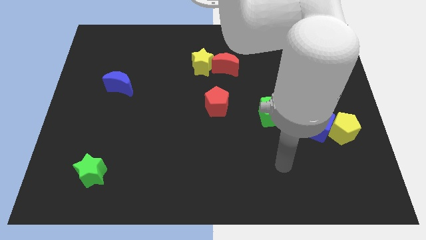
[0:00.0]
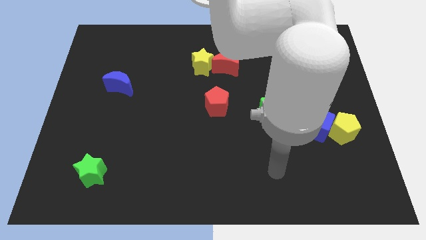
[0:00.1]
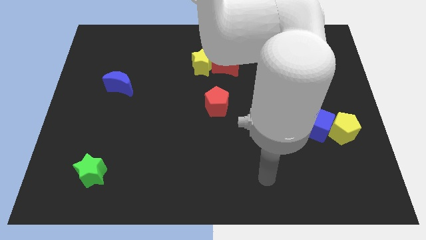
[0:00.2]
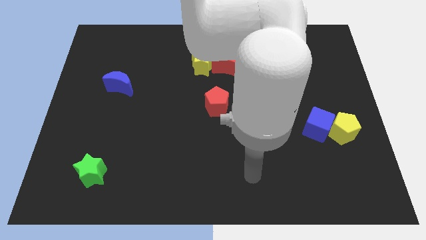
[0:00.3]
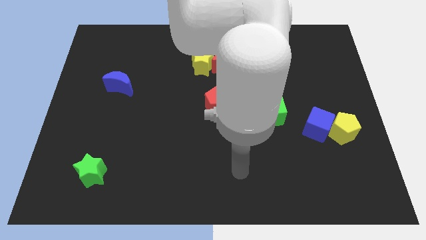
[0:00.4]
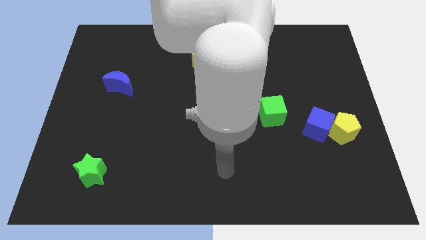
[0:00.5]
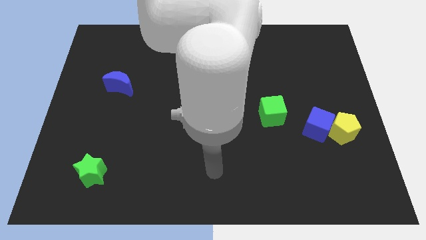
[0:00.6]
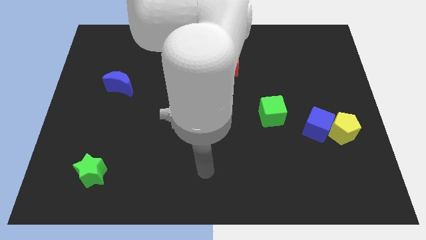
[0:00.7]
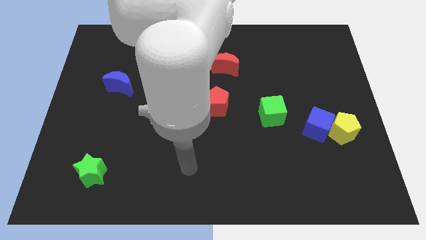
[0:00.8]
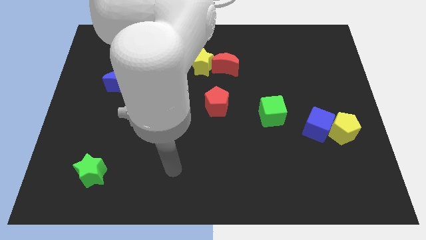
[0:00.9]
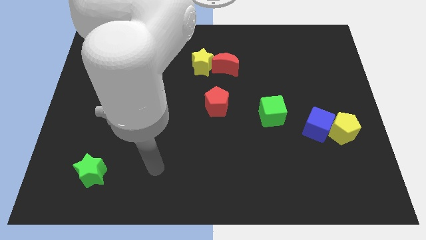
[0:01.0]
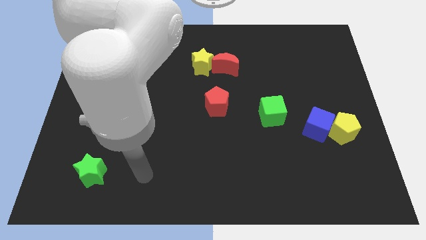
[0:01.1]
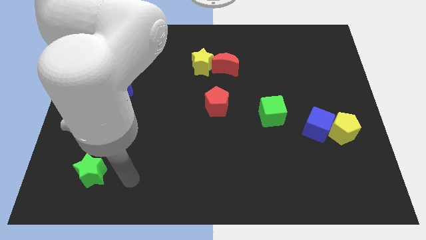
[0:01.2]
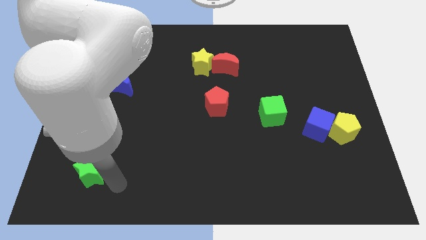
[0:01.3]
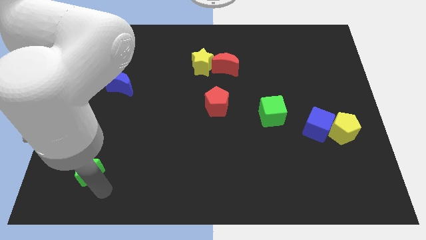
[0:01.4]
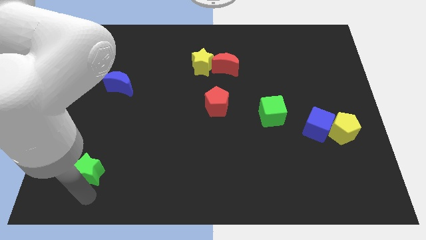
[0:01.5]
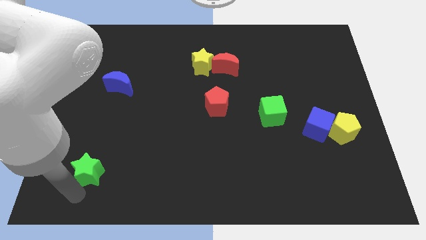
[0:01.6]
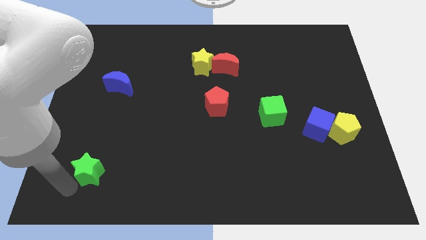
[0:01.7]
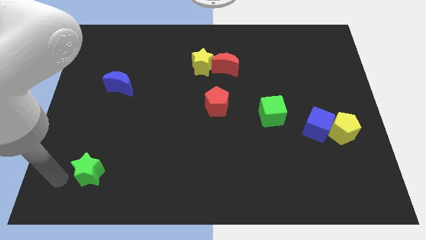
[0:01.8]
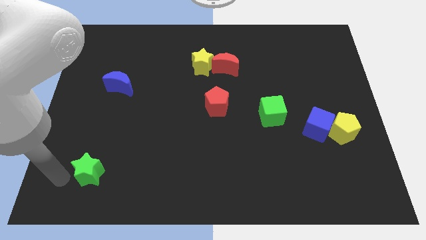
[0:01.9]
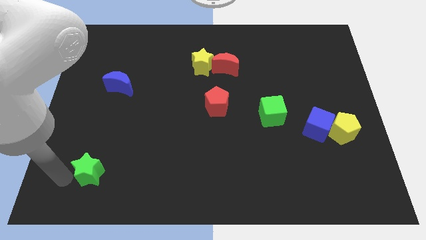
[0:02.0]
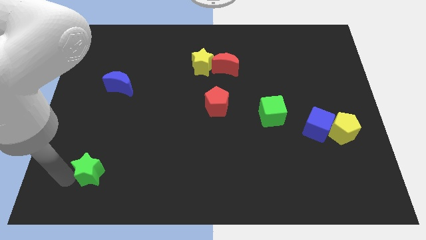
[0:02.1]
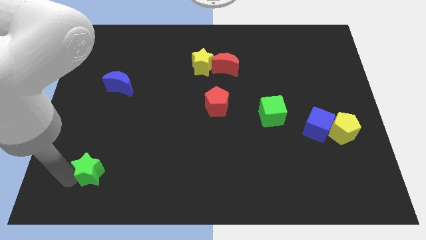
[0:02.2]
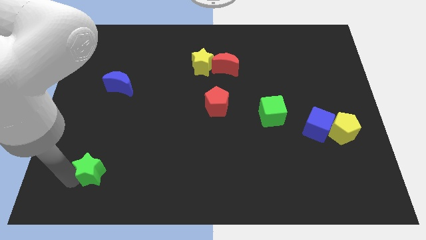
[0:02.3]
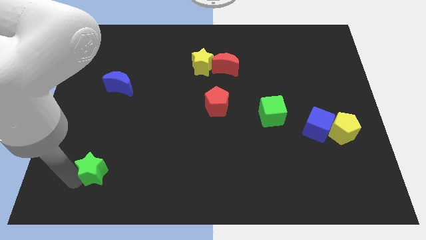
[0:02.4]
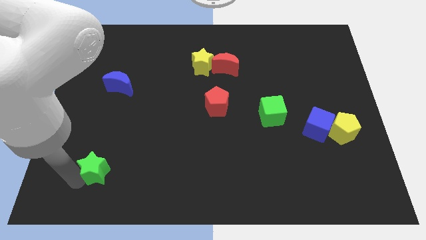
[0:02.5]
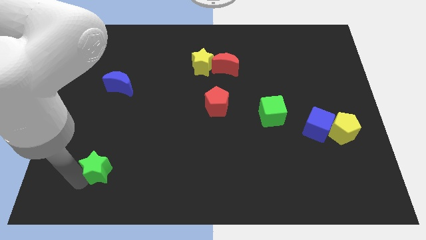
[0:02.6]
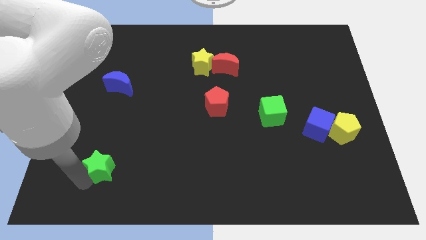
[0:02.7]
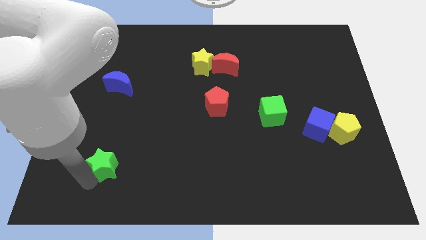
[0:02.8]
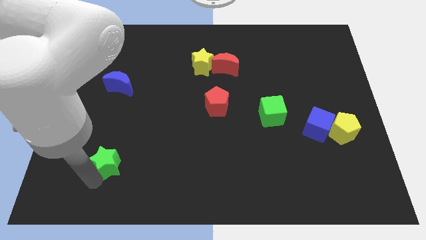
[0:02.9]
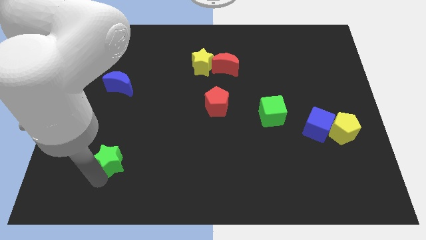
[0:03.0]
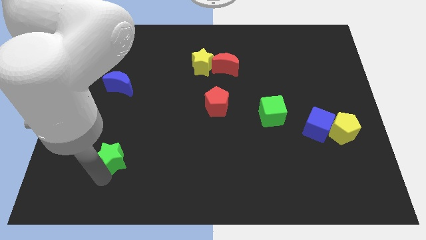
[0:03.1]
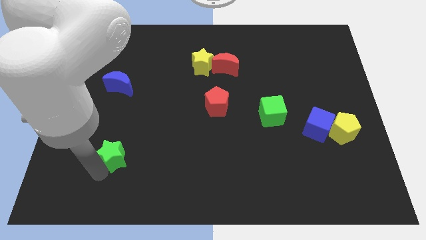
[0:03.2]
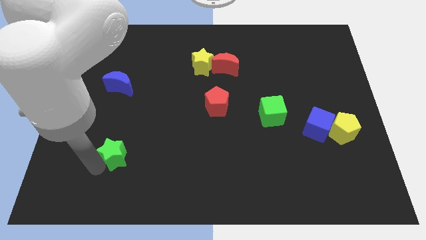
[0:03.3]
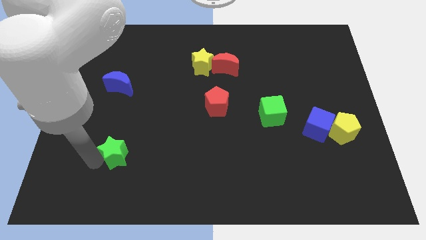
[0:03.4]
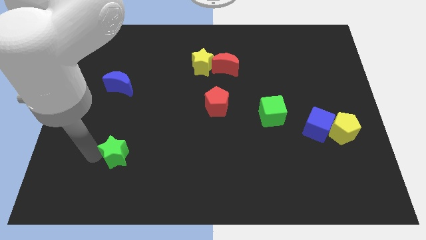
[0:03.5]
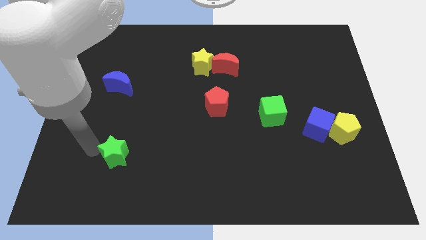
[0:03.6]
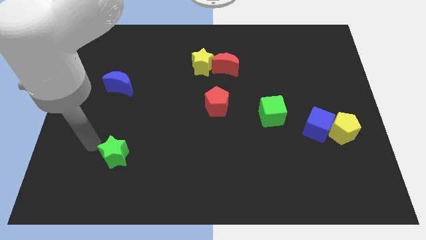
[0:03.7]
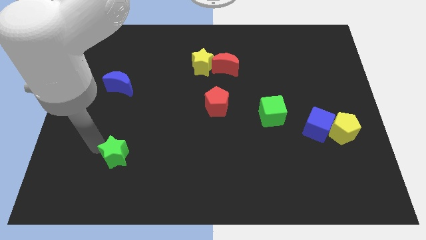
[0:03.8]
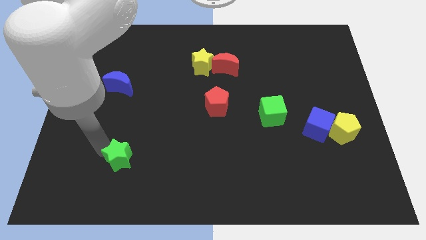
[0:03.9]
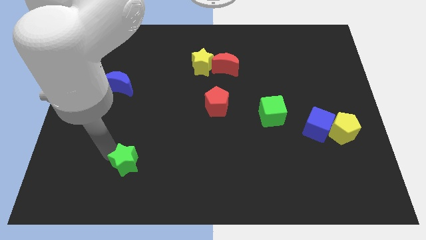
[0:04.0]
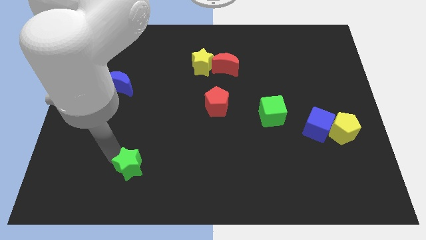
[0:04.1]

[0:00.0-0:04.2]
slightly move the green star right

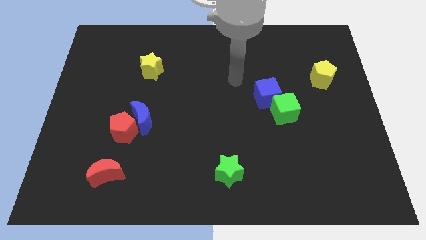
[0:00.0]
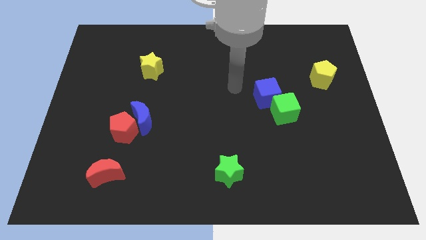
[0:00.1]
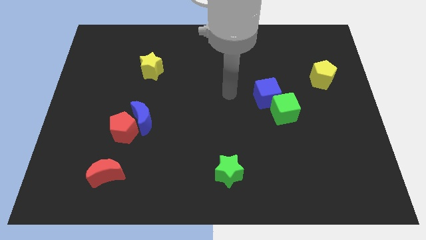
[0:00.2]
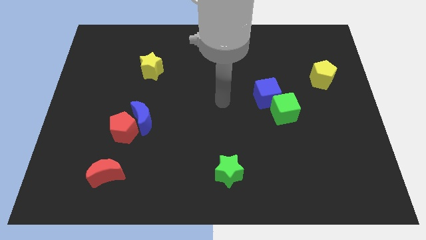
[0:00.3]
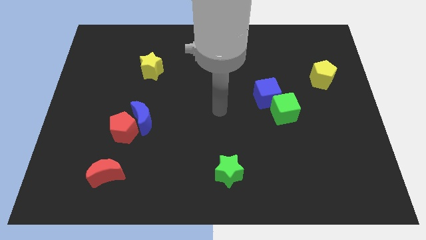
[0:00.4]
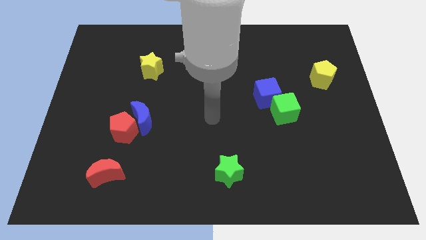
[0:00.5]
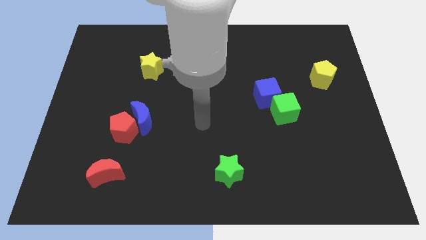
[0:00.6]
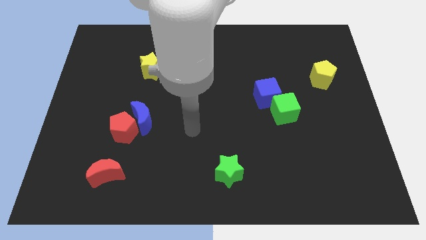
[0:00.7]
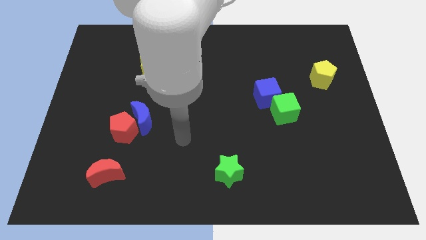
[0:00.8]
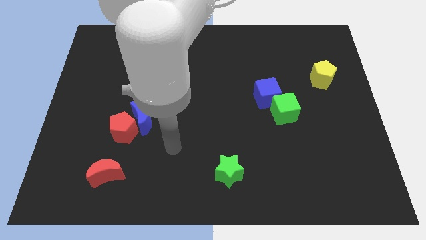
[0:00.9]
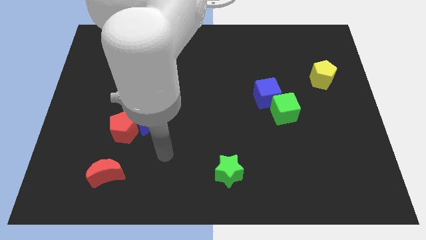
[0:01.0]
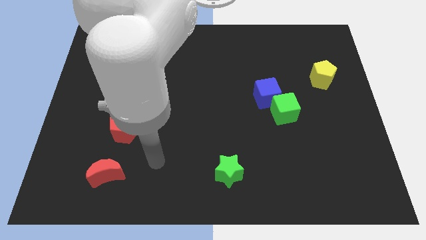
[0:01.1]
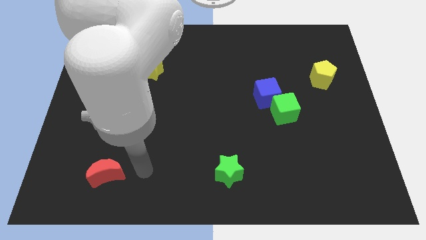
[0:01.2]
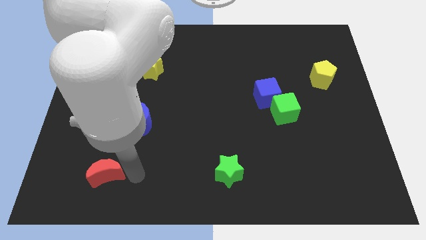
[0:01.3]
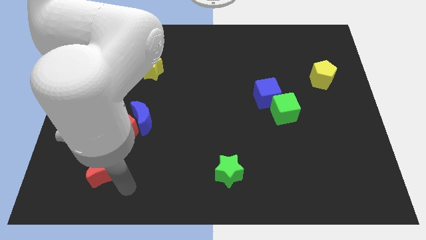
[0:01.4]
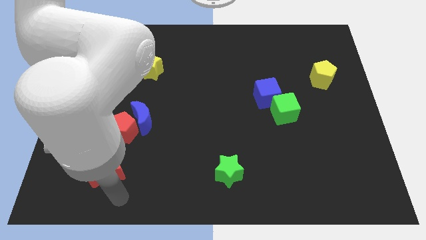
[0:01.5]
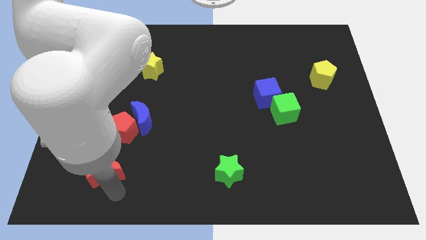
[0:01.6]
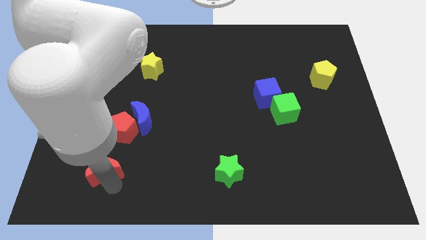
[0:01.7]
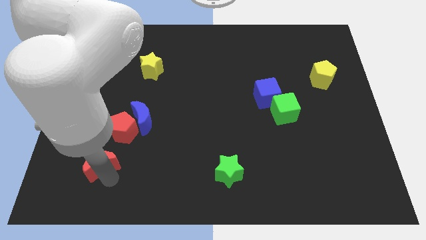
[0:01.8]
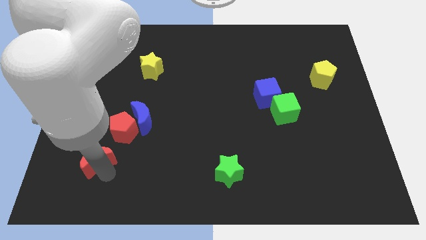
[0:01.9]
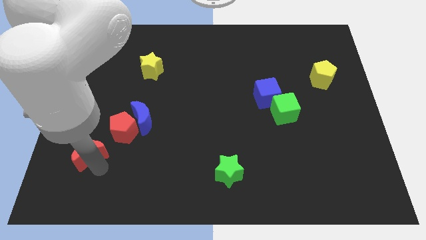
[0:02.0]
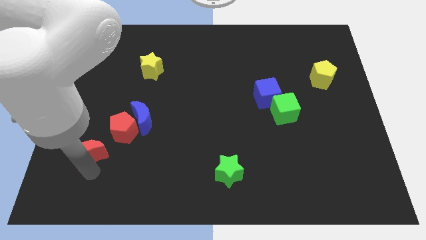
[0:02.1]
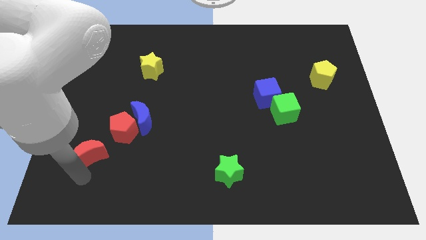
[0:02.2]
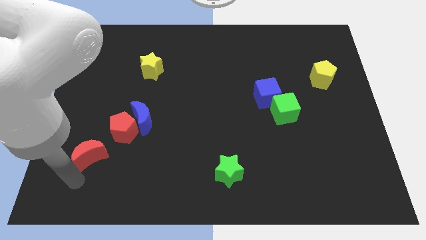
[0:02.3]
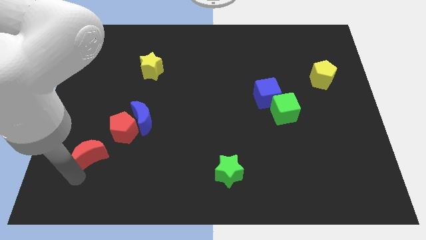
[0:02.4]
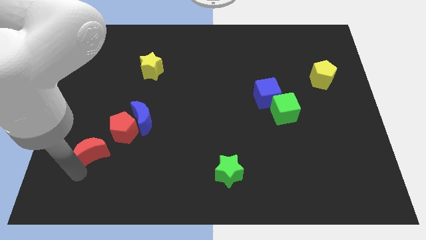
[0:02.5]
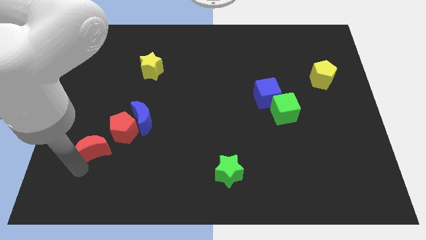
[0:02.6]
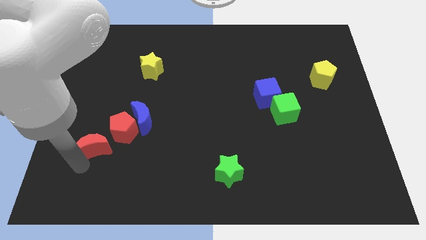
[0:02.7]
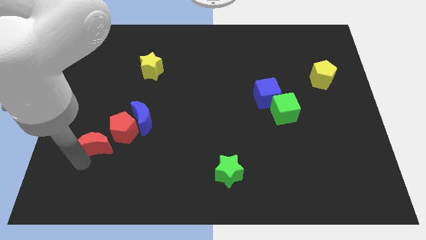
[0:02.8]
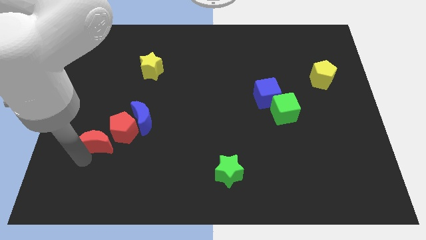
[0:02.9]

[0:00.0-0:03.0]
move the red moon up a little bit

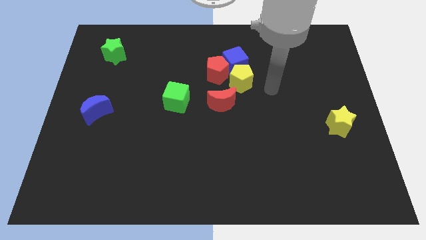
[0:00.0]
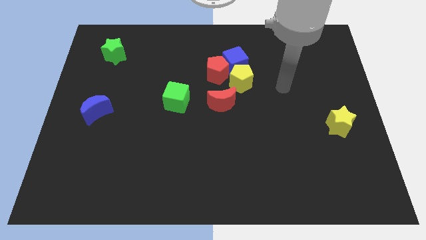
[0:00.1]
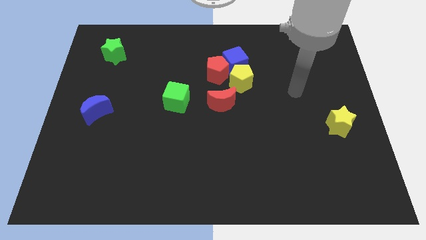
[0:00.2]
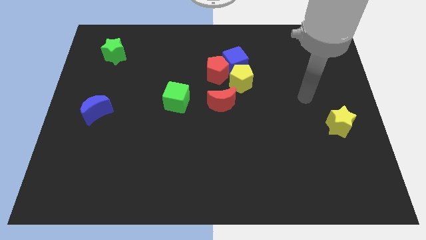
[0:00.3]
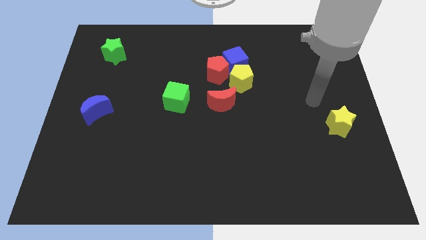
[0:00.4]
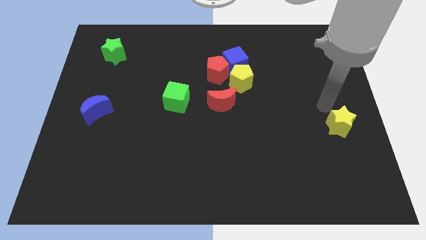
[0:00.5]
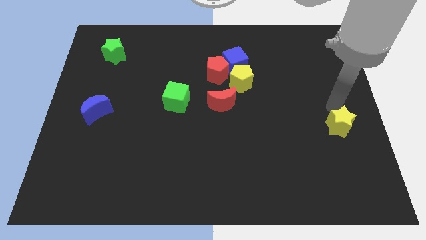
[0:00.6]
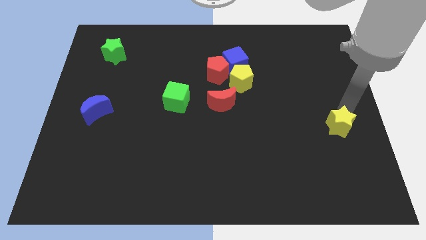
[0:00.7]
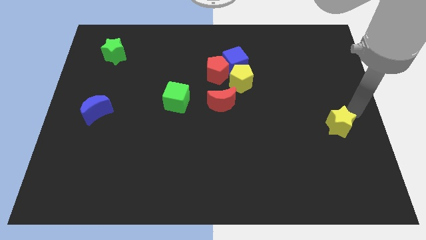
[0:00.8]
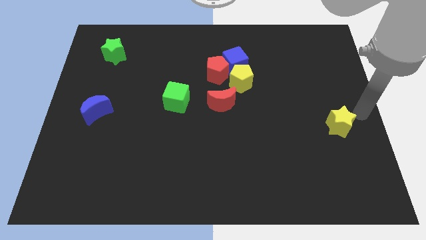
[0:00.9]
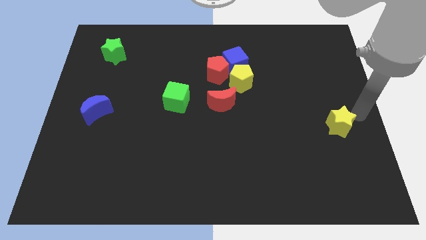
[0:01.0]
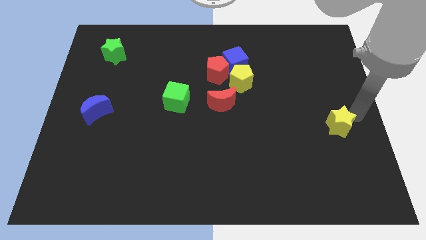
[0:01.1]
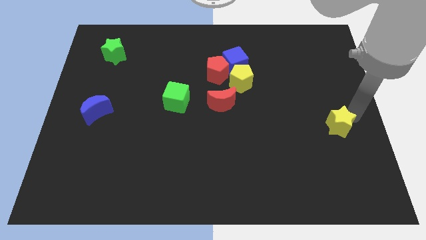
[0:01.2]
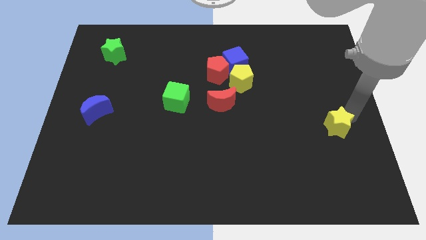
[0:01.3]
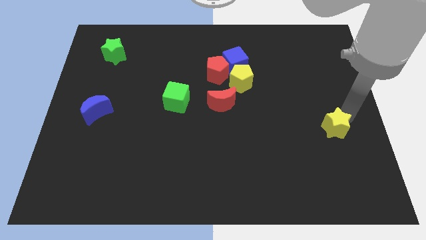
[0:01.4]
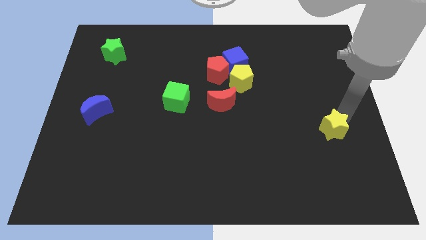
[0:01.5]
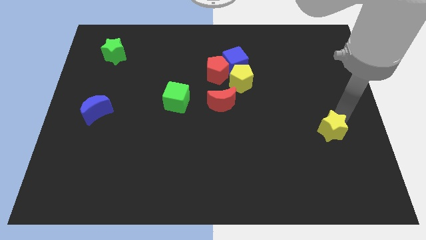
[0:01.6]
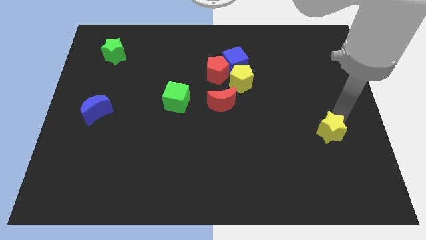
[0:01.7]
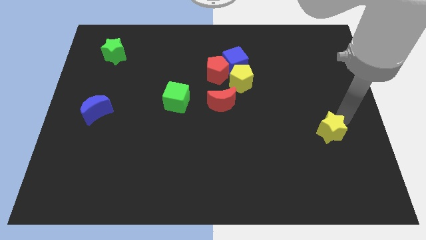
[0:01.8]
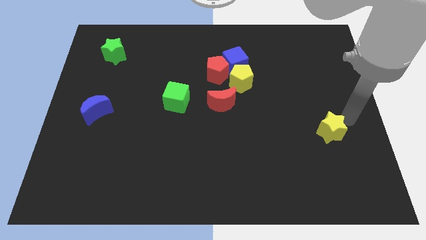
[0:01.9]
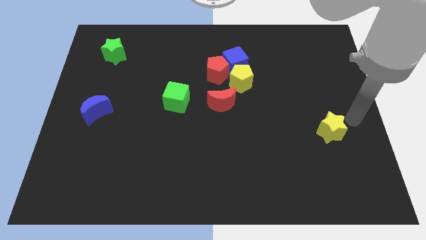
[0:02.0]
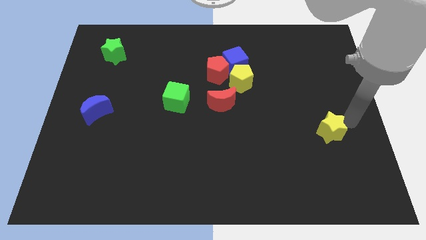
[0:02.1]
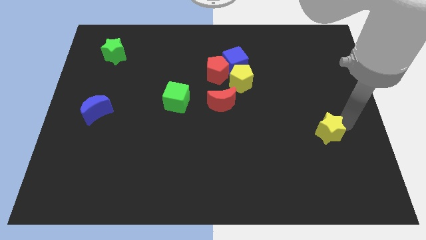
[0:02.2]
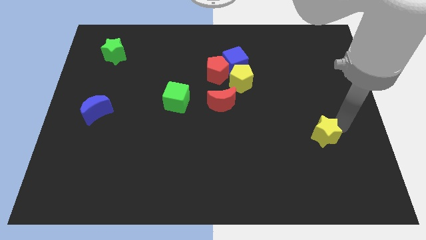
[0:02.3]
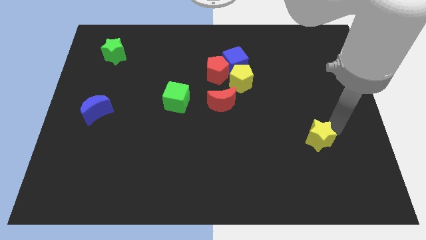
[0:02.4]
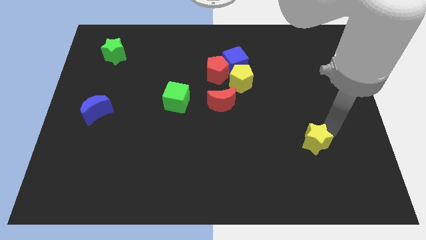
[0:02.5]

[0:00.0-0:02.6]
push the yellow star downwards and then left a little bit
